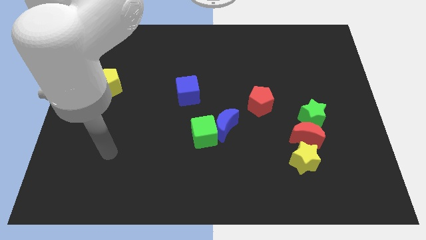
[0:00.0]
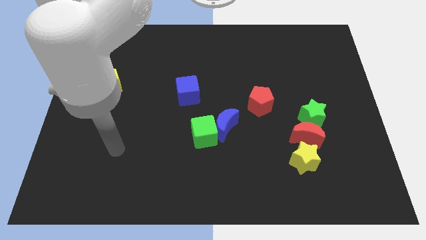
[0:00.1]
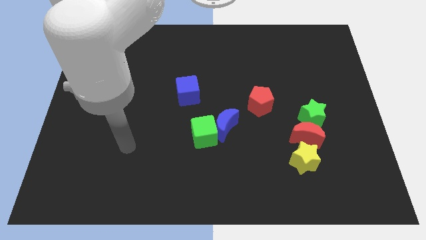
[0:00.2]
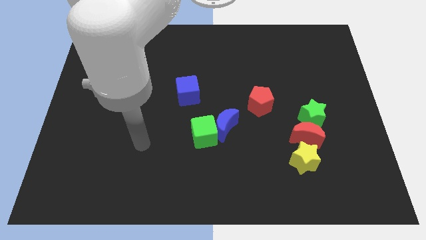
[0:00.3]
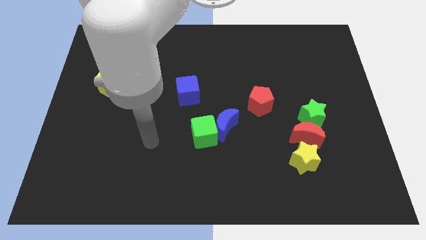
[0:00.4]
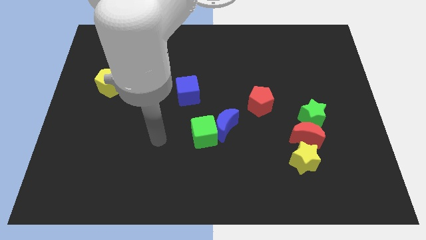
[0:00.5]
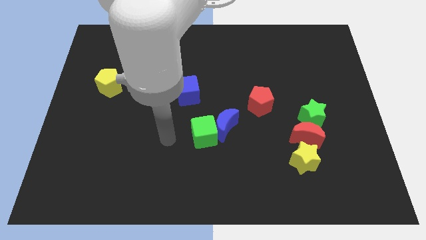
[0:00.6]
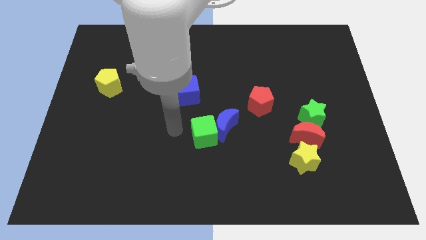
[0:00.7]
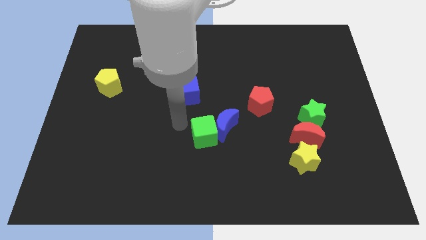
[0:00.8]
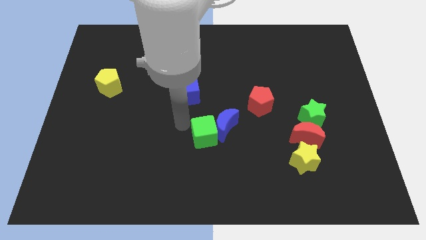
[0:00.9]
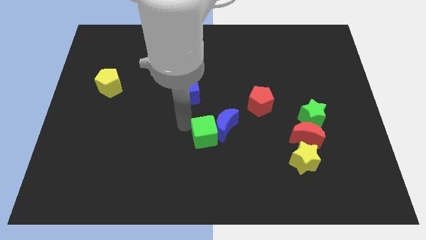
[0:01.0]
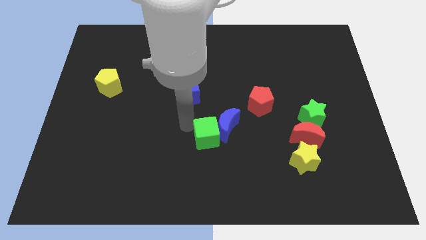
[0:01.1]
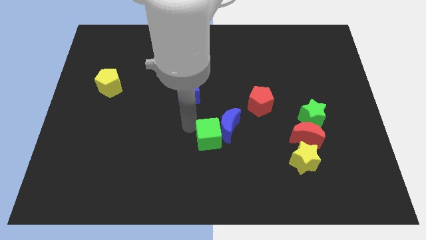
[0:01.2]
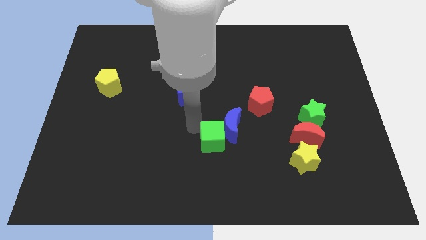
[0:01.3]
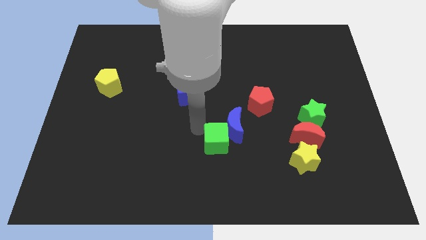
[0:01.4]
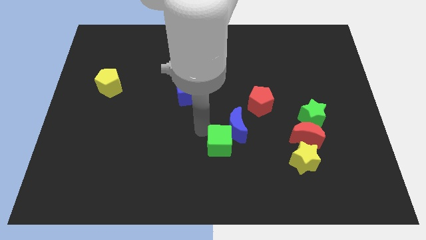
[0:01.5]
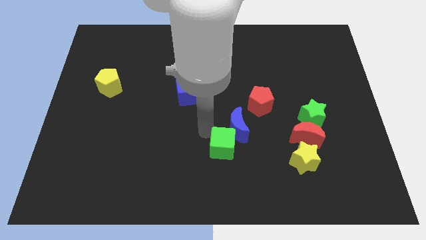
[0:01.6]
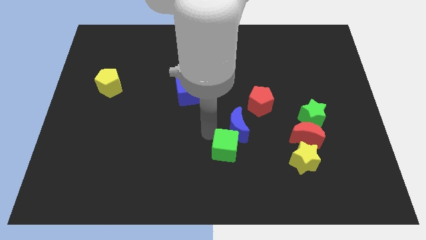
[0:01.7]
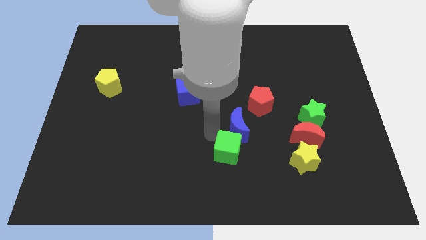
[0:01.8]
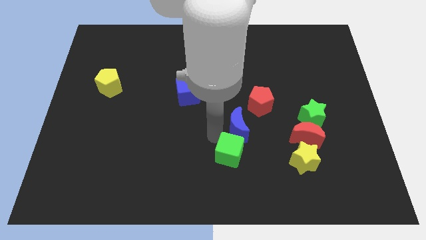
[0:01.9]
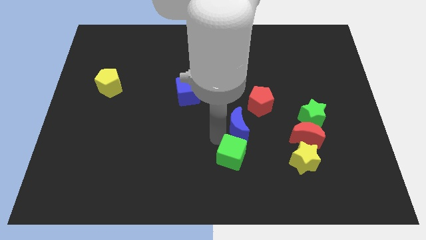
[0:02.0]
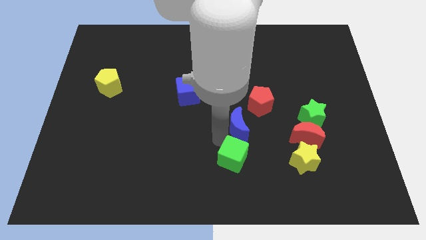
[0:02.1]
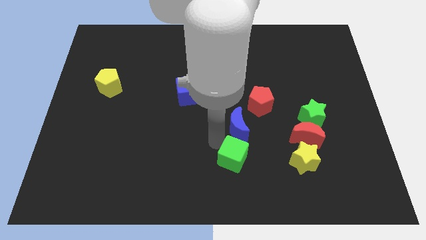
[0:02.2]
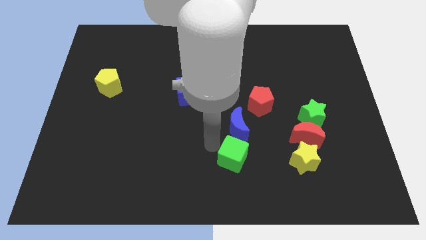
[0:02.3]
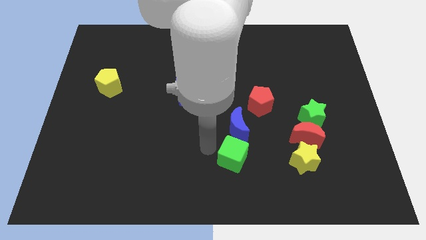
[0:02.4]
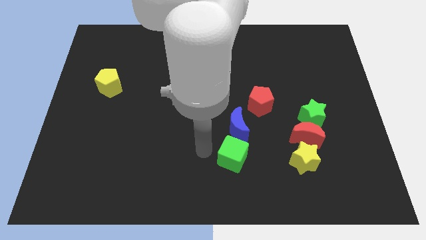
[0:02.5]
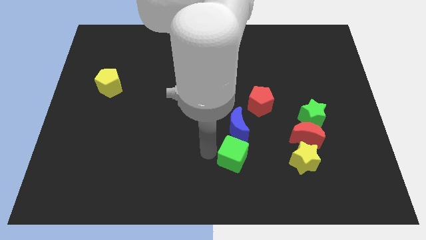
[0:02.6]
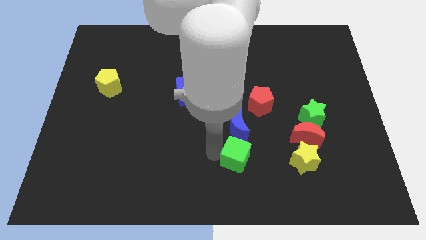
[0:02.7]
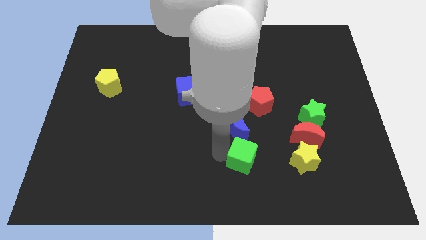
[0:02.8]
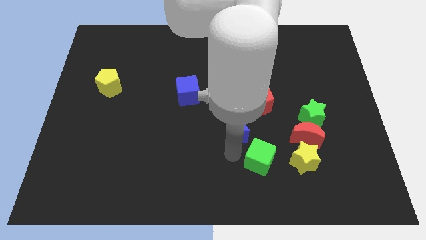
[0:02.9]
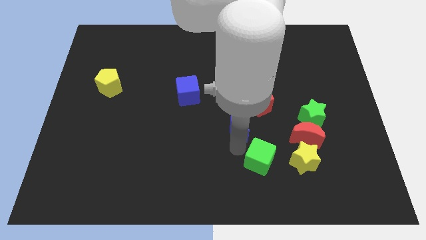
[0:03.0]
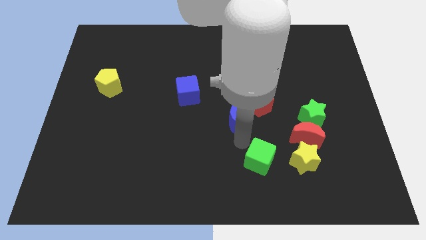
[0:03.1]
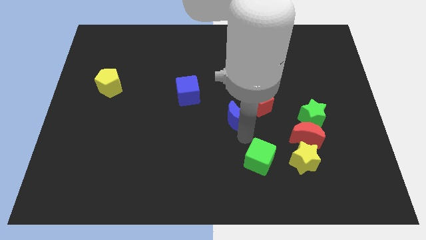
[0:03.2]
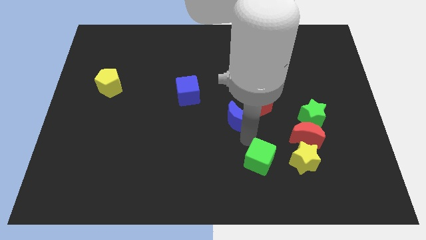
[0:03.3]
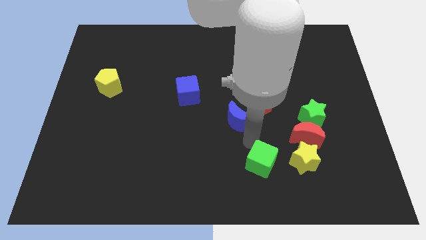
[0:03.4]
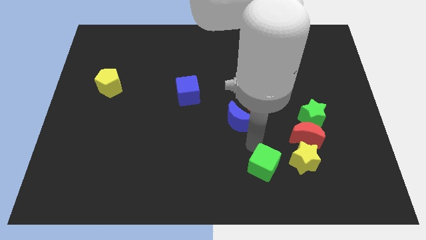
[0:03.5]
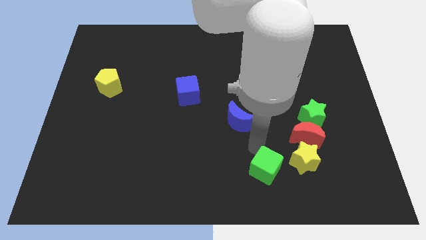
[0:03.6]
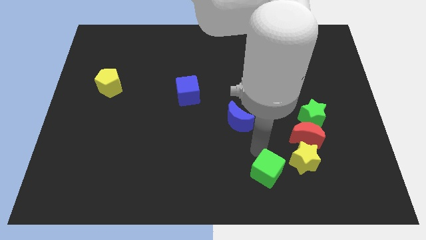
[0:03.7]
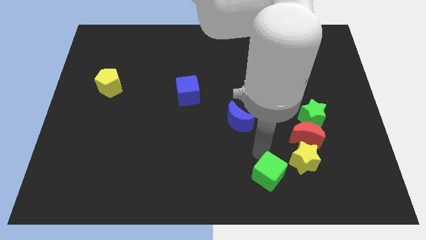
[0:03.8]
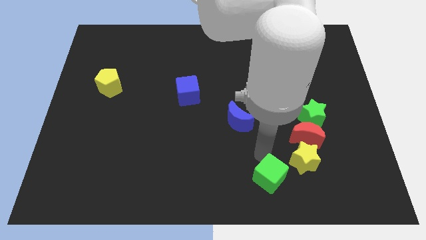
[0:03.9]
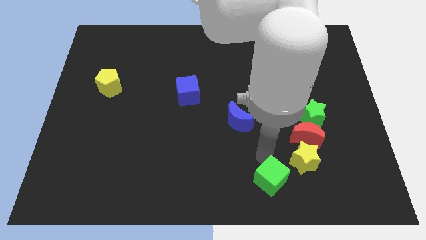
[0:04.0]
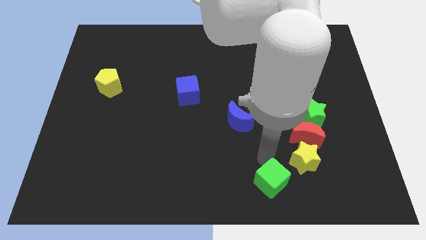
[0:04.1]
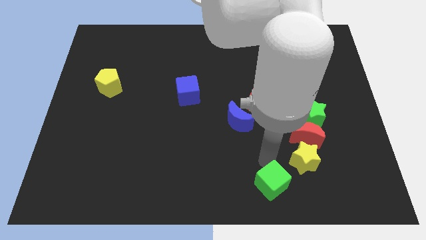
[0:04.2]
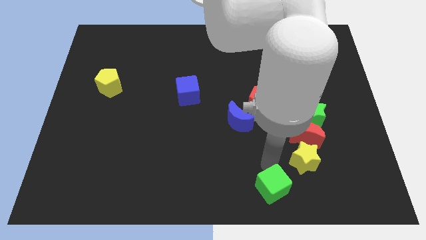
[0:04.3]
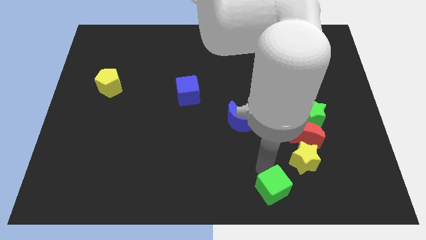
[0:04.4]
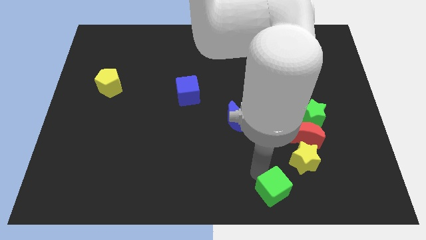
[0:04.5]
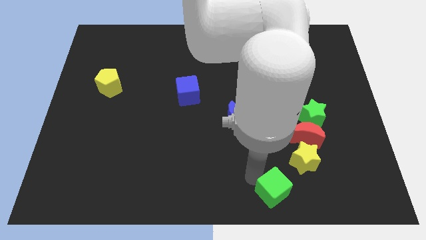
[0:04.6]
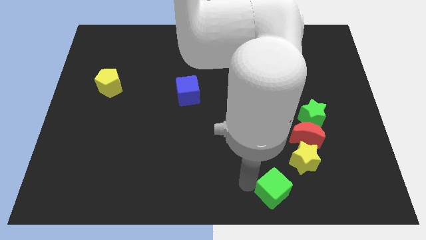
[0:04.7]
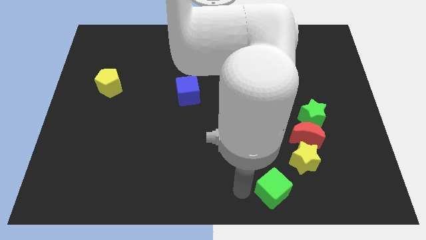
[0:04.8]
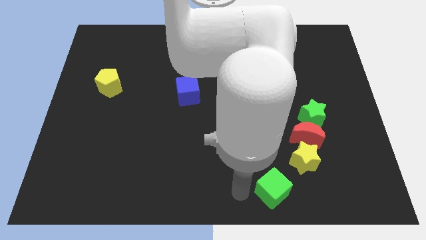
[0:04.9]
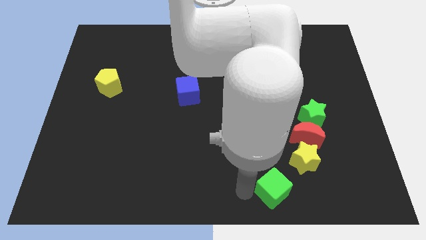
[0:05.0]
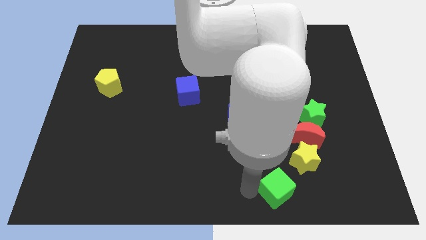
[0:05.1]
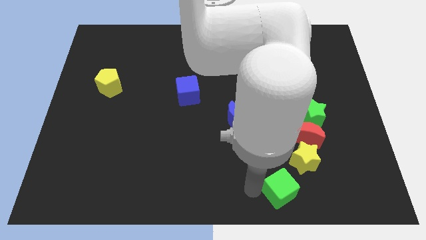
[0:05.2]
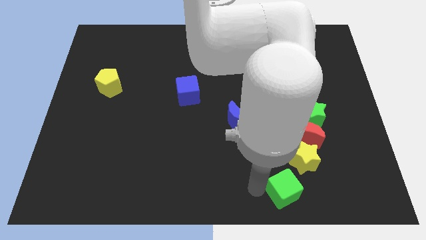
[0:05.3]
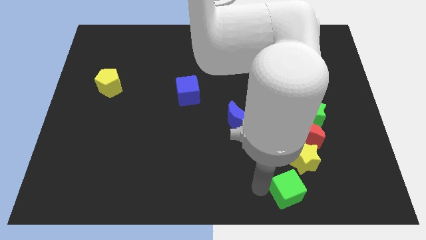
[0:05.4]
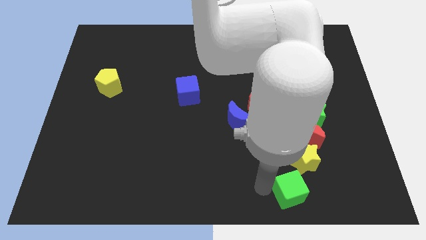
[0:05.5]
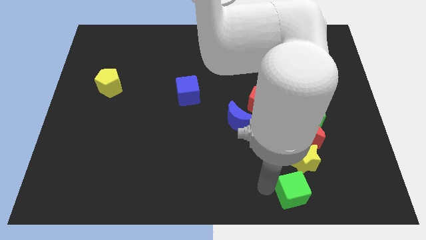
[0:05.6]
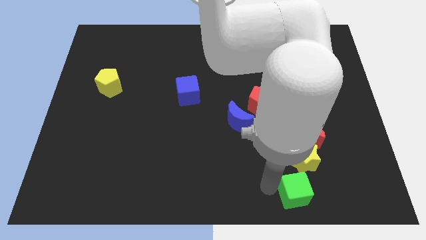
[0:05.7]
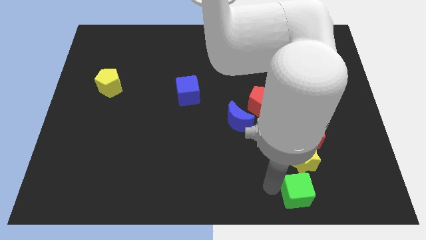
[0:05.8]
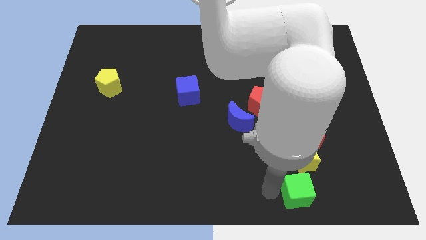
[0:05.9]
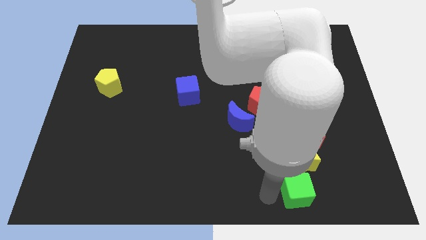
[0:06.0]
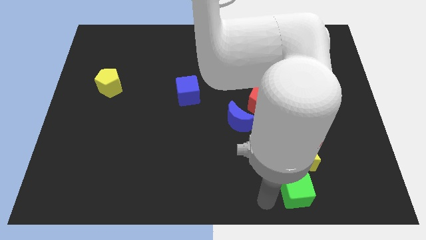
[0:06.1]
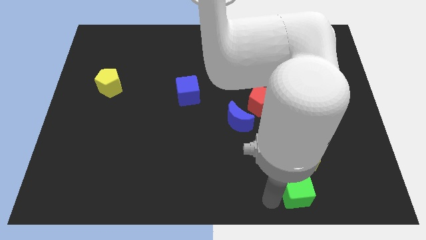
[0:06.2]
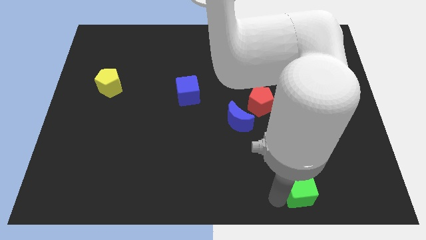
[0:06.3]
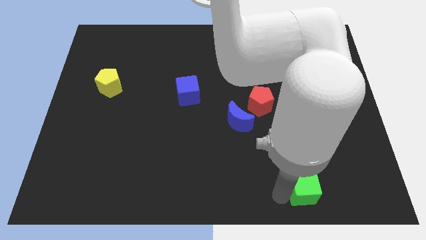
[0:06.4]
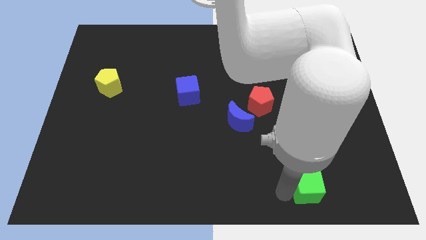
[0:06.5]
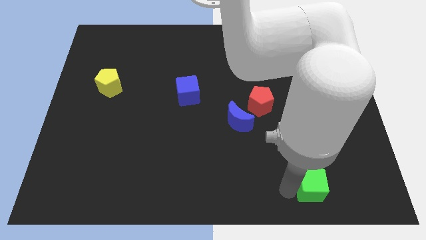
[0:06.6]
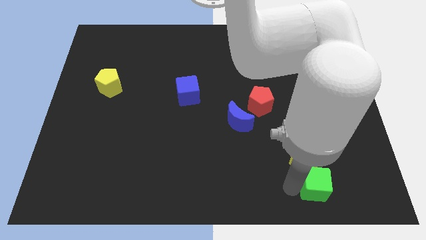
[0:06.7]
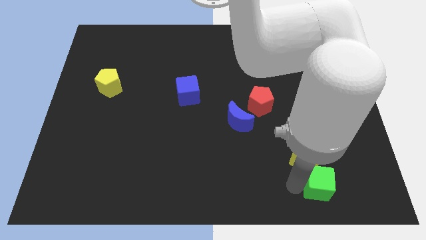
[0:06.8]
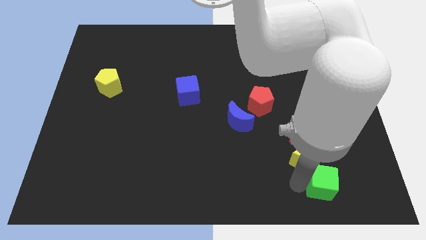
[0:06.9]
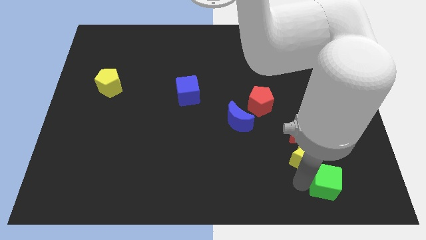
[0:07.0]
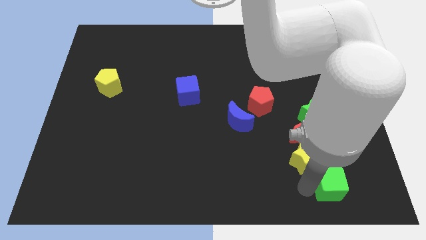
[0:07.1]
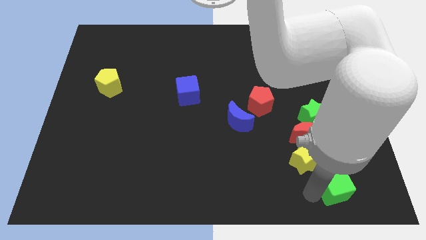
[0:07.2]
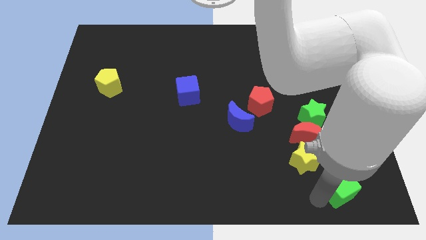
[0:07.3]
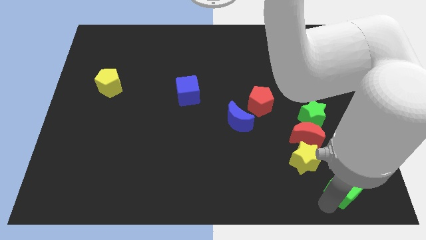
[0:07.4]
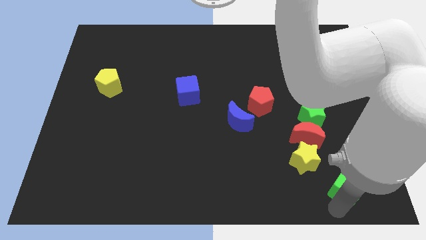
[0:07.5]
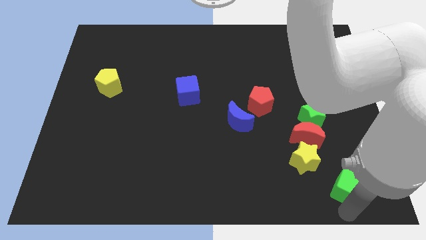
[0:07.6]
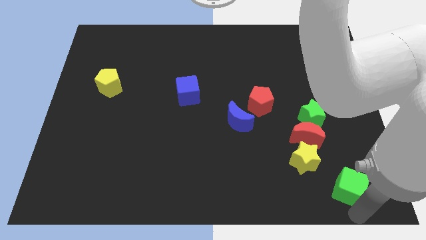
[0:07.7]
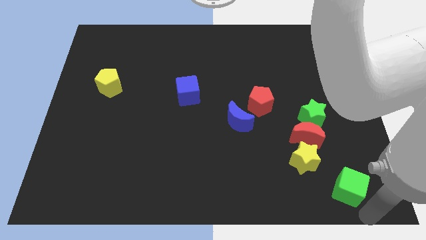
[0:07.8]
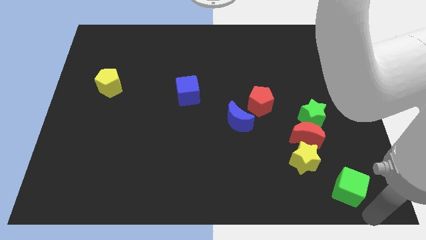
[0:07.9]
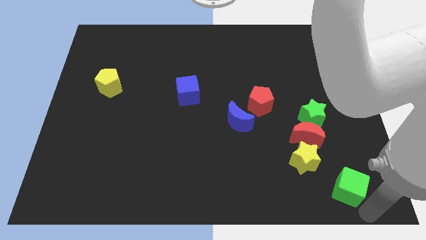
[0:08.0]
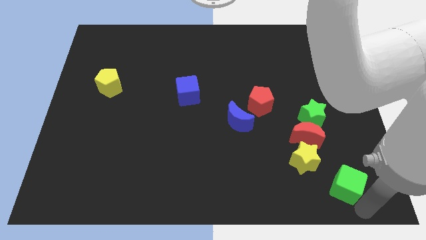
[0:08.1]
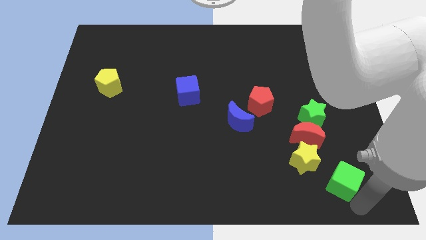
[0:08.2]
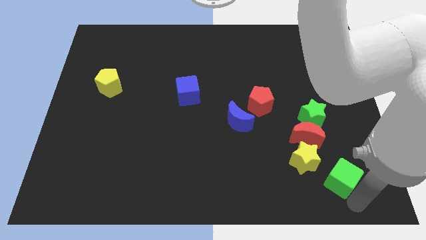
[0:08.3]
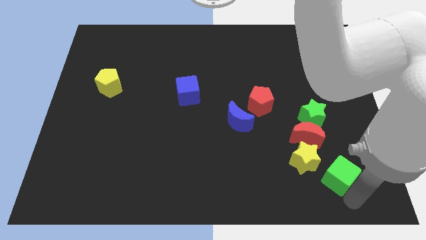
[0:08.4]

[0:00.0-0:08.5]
push the green cube to the bottom of the green star
